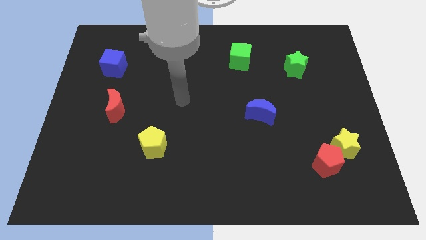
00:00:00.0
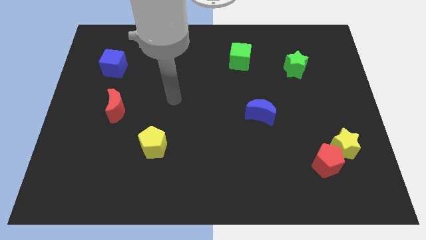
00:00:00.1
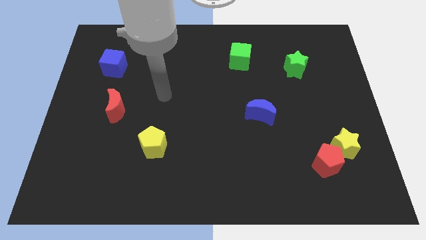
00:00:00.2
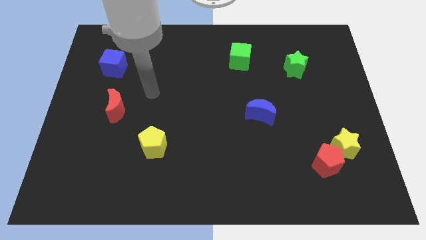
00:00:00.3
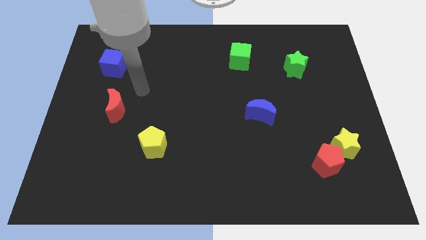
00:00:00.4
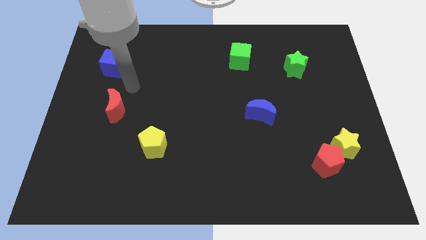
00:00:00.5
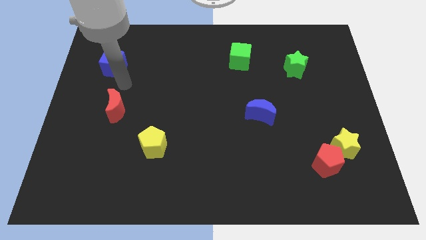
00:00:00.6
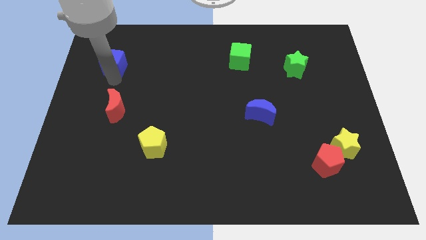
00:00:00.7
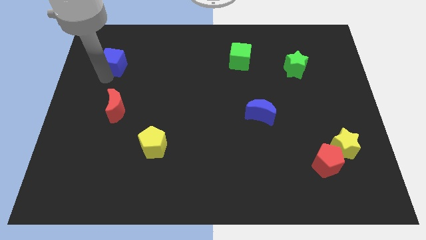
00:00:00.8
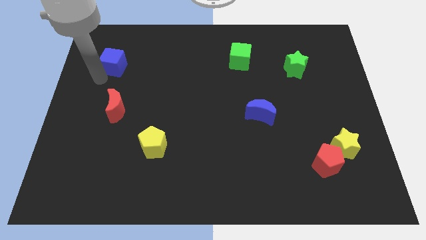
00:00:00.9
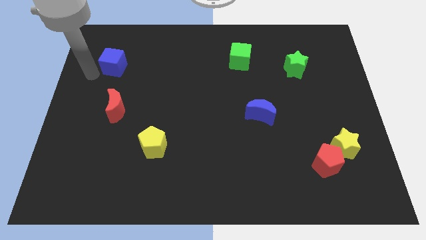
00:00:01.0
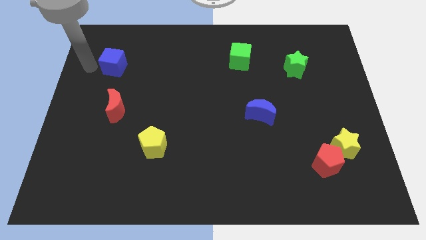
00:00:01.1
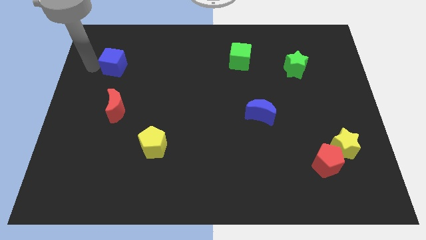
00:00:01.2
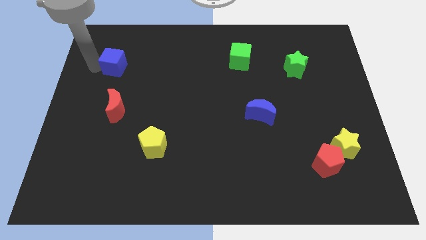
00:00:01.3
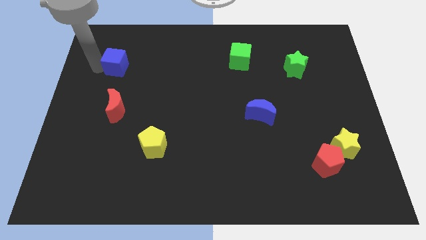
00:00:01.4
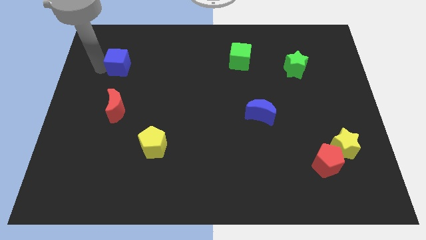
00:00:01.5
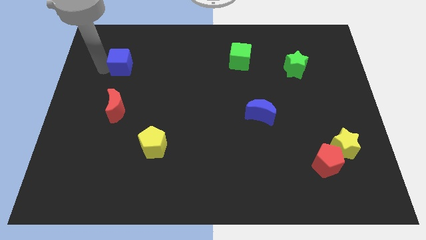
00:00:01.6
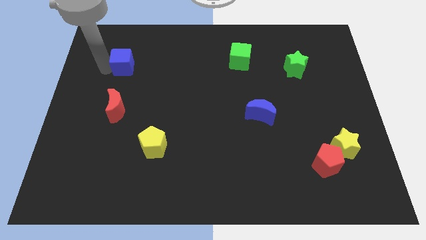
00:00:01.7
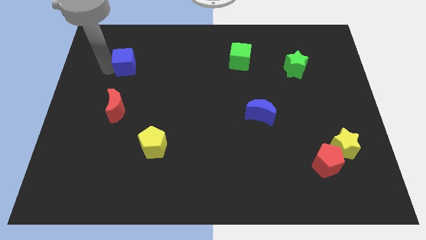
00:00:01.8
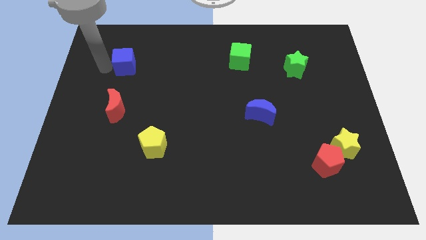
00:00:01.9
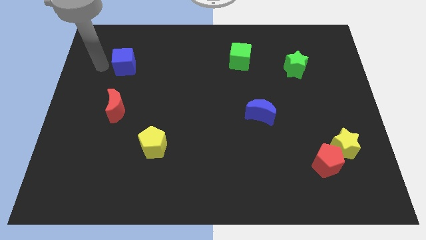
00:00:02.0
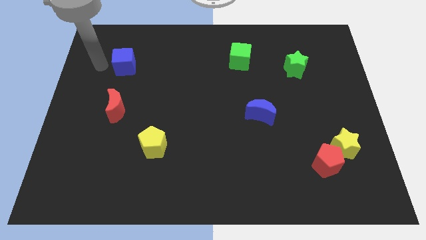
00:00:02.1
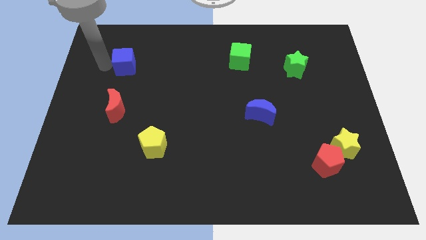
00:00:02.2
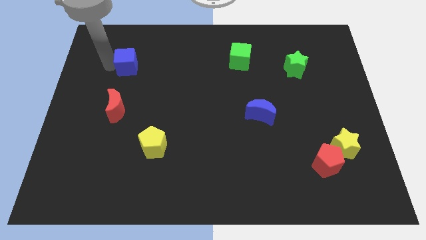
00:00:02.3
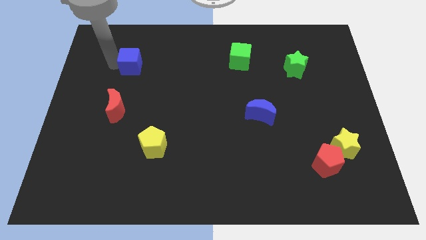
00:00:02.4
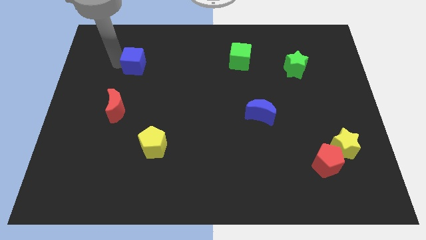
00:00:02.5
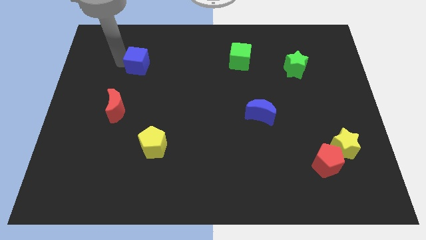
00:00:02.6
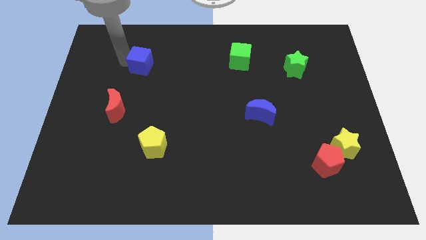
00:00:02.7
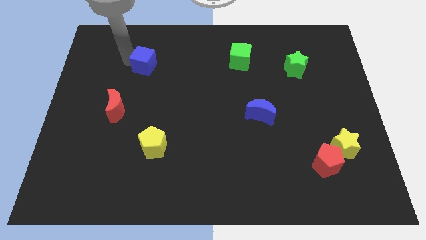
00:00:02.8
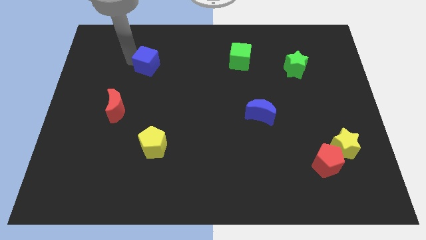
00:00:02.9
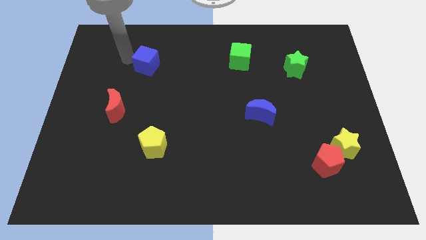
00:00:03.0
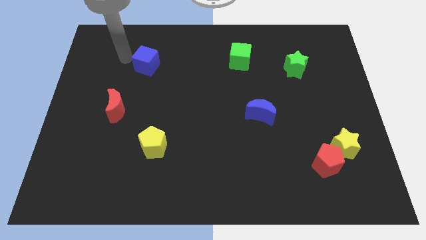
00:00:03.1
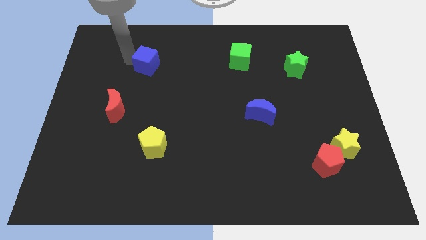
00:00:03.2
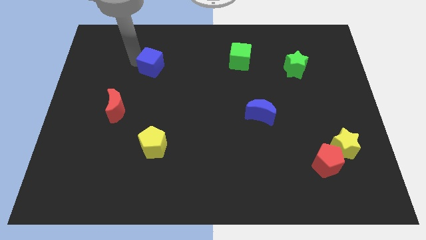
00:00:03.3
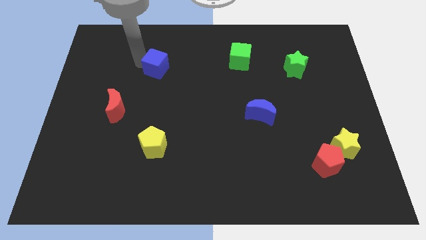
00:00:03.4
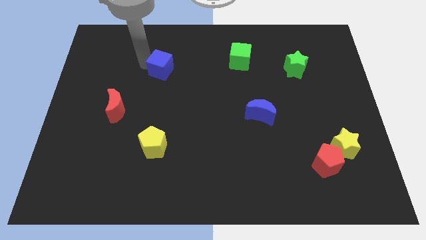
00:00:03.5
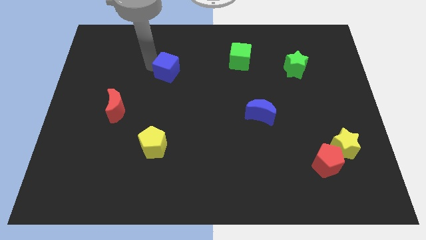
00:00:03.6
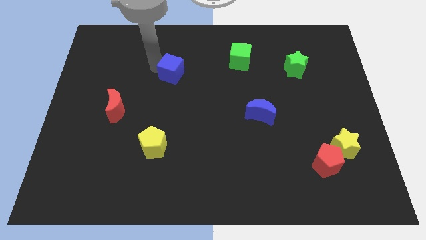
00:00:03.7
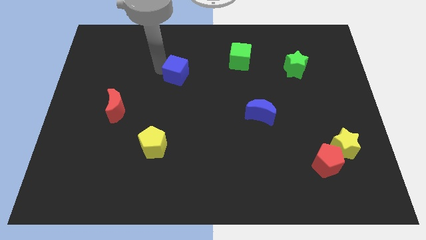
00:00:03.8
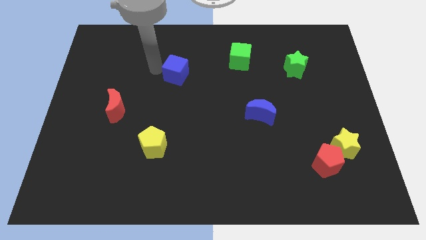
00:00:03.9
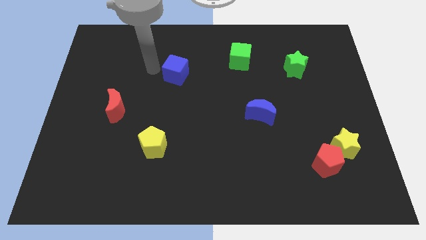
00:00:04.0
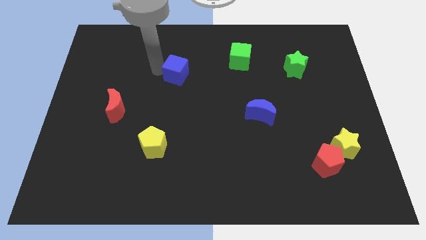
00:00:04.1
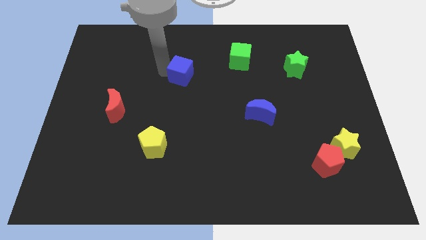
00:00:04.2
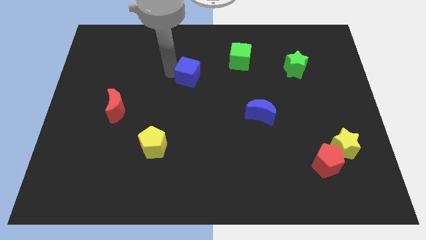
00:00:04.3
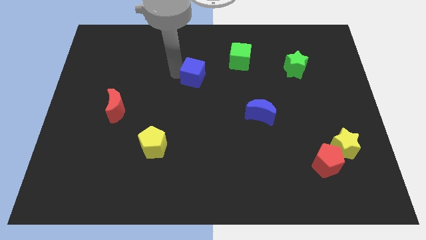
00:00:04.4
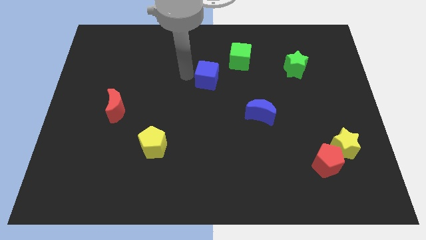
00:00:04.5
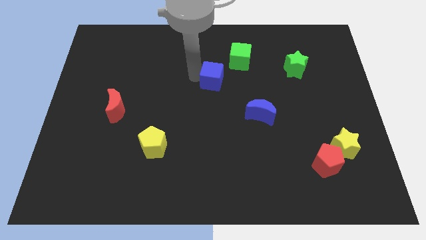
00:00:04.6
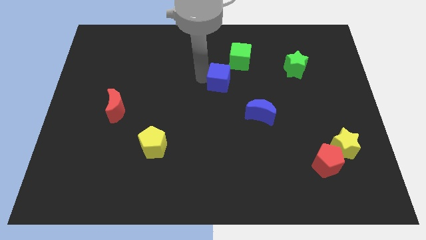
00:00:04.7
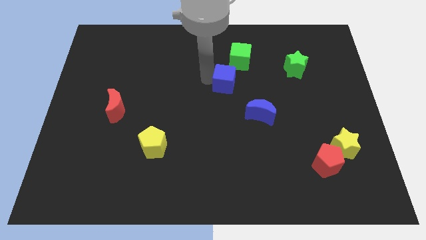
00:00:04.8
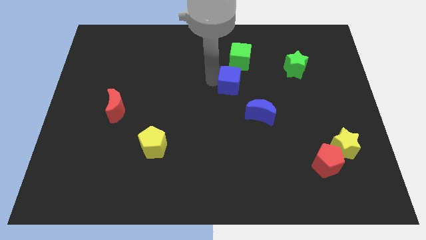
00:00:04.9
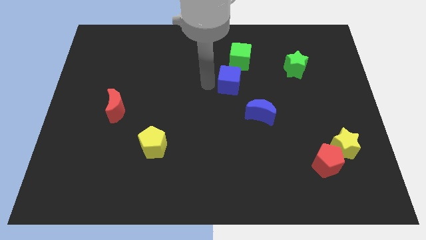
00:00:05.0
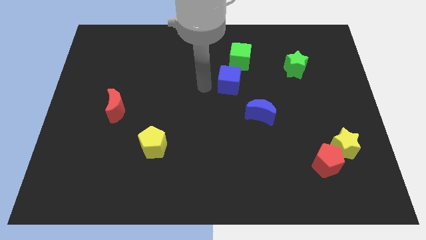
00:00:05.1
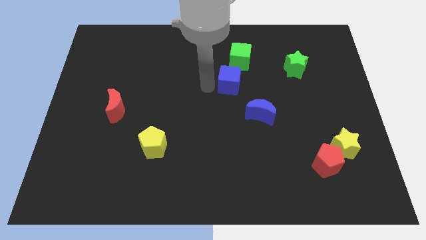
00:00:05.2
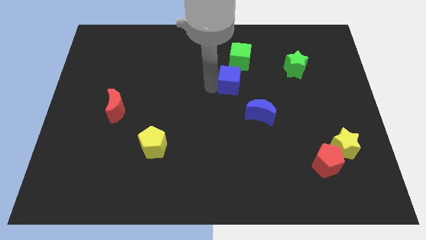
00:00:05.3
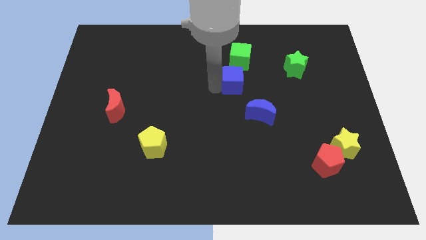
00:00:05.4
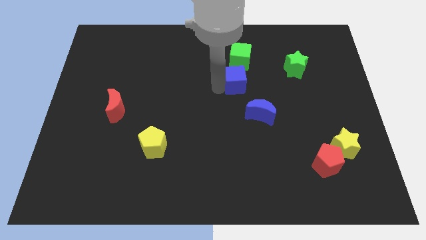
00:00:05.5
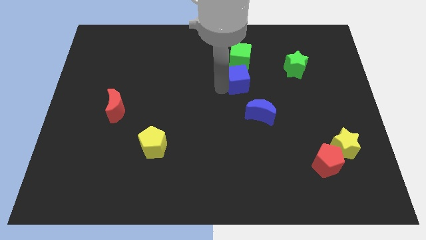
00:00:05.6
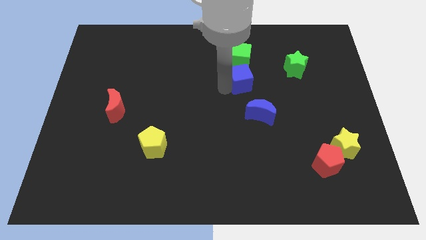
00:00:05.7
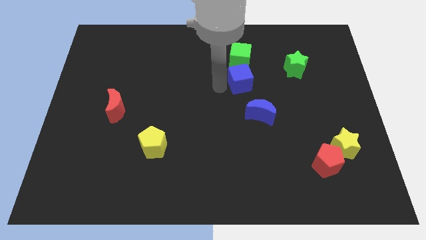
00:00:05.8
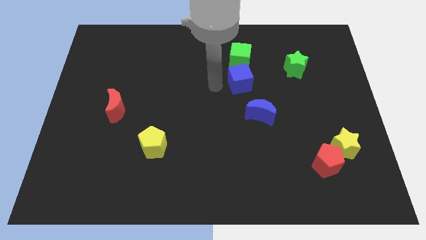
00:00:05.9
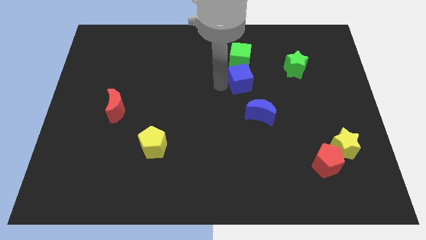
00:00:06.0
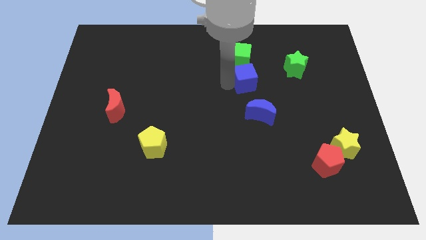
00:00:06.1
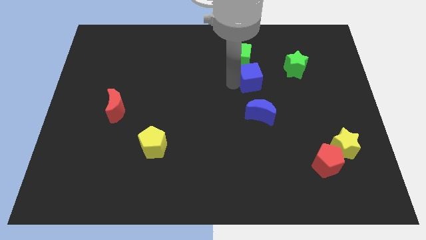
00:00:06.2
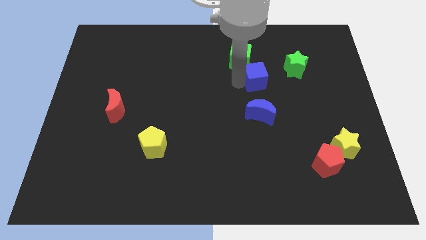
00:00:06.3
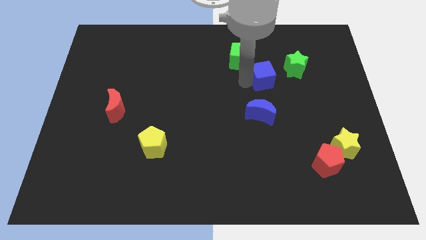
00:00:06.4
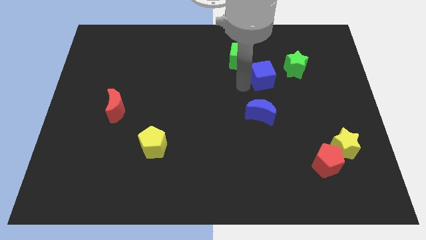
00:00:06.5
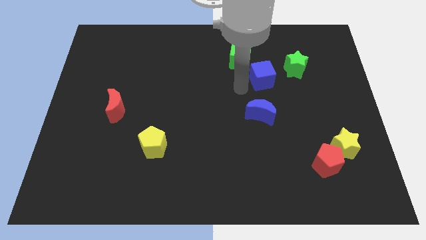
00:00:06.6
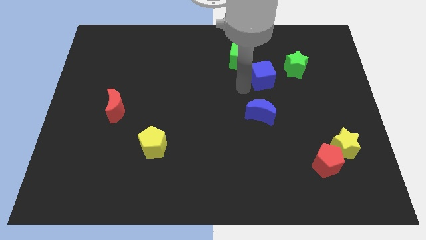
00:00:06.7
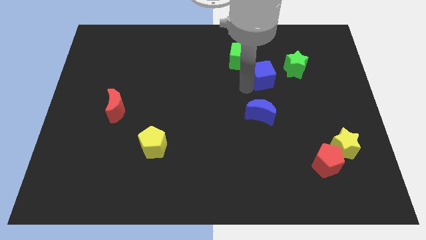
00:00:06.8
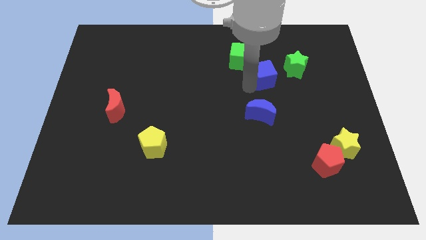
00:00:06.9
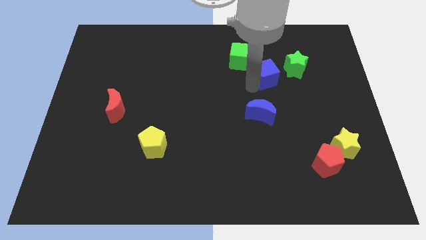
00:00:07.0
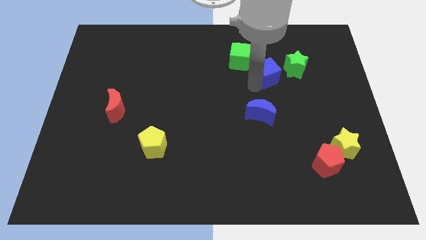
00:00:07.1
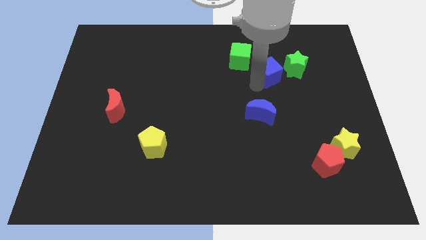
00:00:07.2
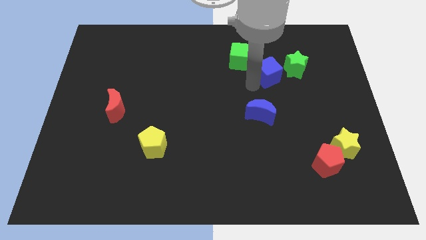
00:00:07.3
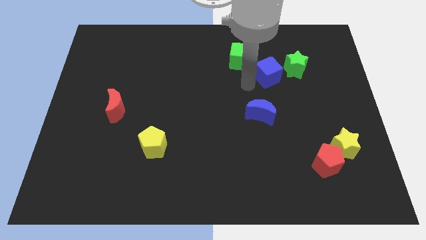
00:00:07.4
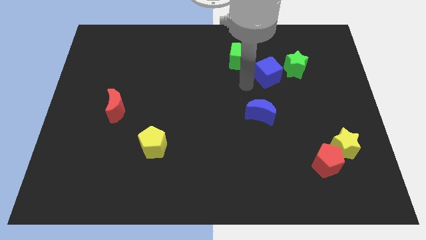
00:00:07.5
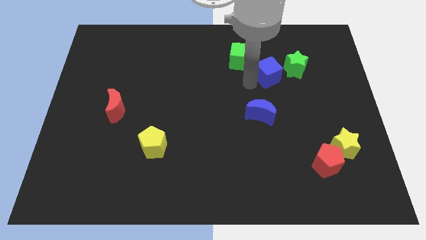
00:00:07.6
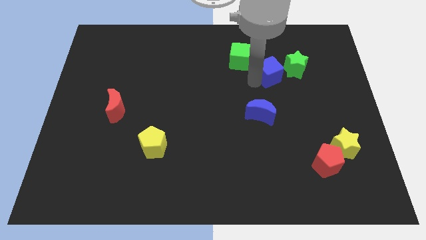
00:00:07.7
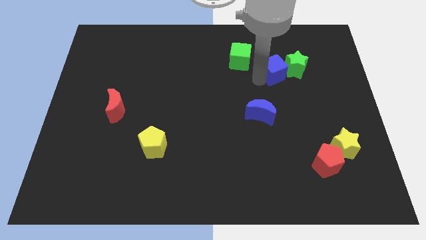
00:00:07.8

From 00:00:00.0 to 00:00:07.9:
put the blue cube next to the green star

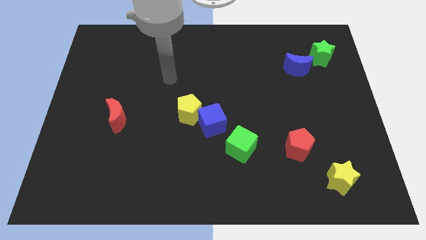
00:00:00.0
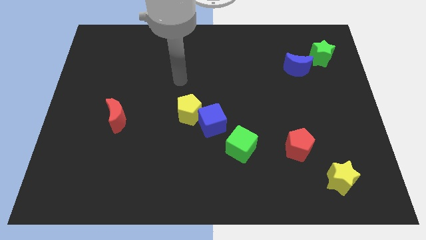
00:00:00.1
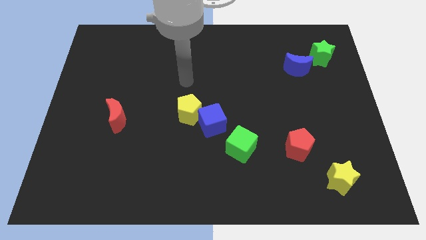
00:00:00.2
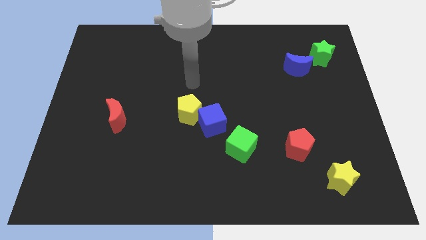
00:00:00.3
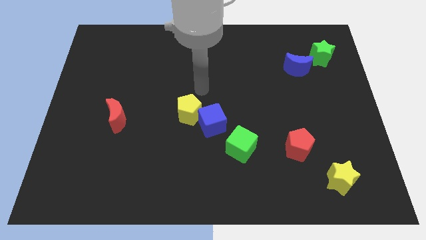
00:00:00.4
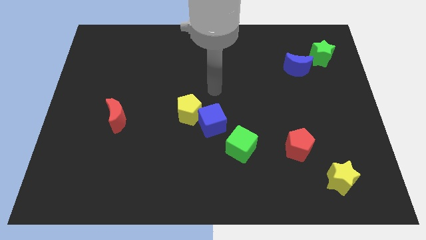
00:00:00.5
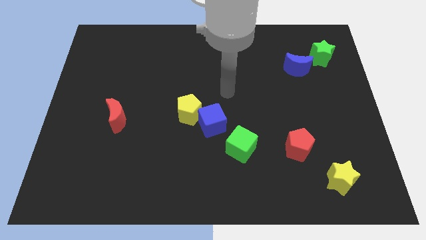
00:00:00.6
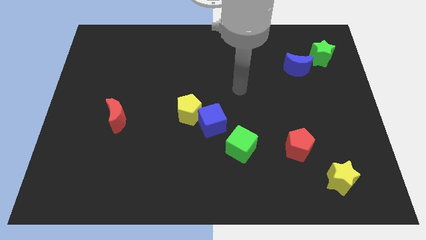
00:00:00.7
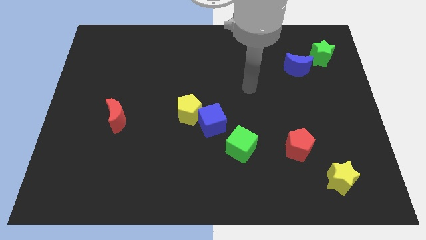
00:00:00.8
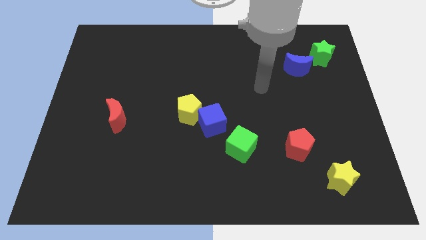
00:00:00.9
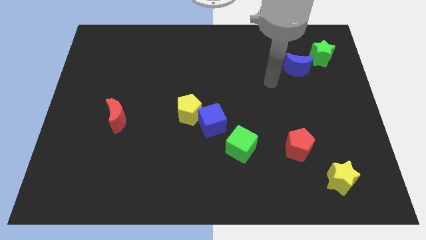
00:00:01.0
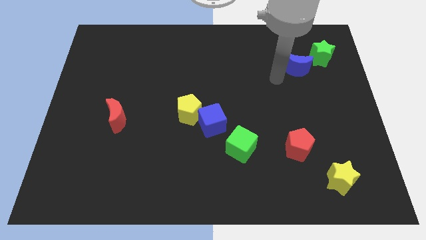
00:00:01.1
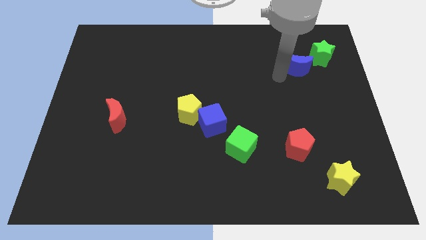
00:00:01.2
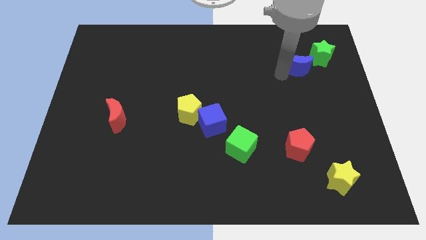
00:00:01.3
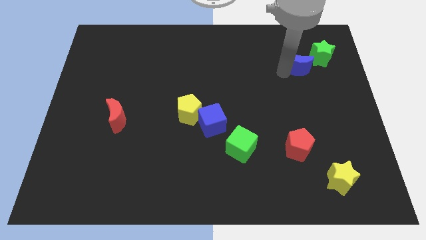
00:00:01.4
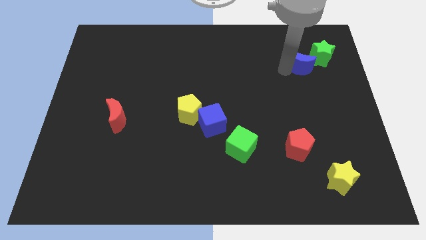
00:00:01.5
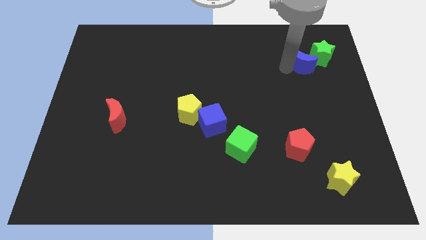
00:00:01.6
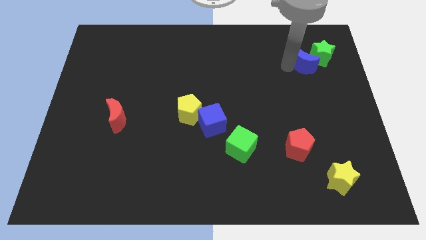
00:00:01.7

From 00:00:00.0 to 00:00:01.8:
push the blue moon close to the green star
